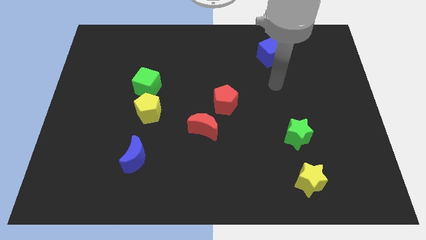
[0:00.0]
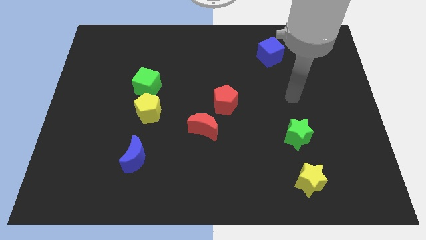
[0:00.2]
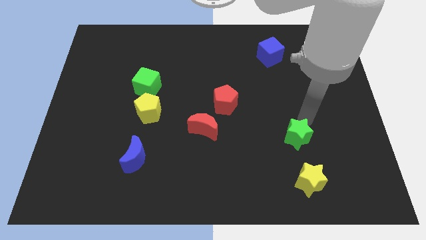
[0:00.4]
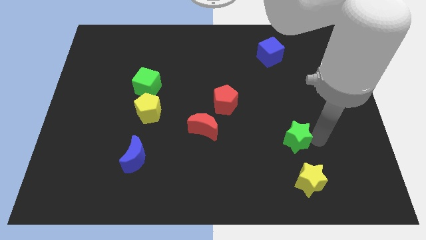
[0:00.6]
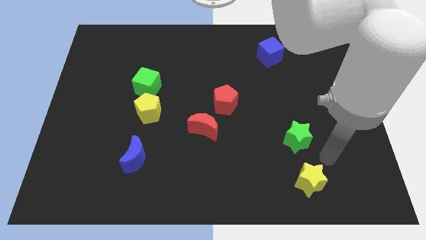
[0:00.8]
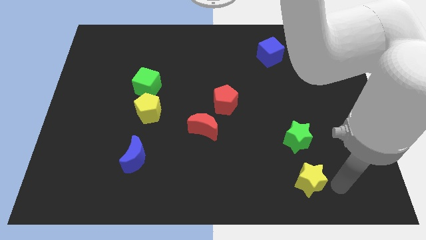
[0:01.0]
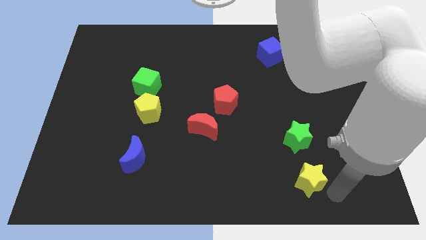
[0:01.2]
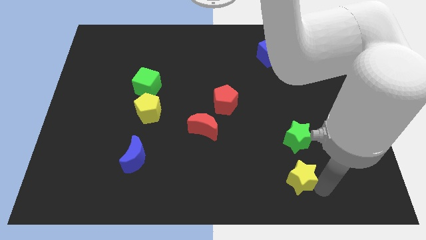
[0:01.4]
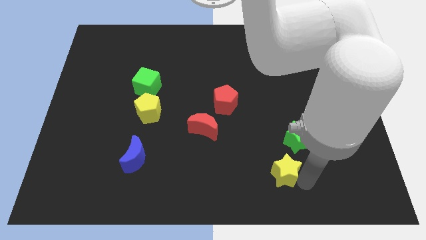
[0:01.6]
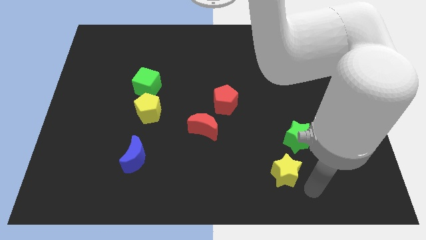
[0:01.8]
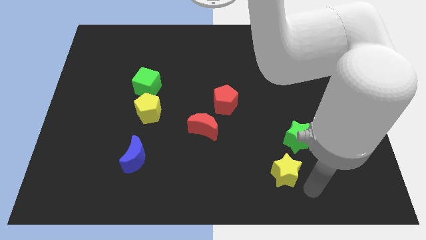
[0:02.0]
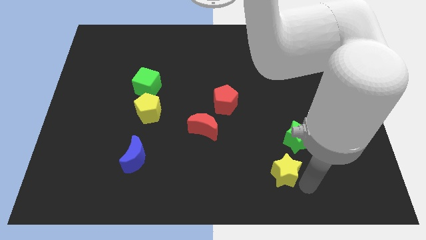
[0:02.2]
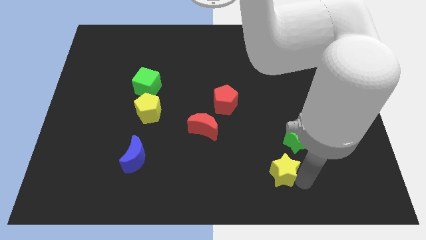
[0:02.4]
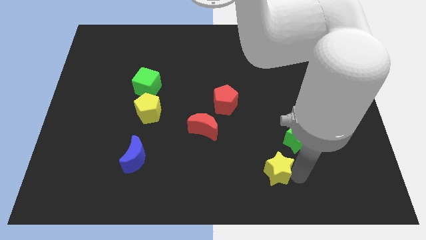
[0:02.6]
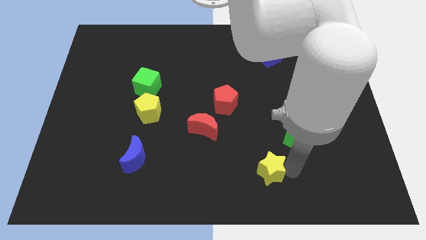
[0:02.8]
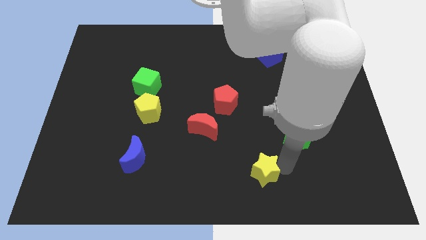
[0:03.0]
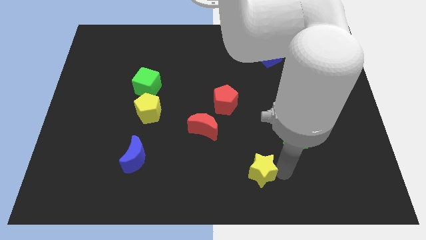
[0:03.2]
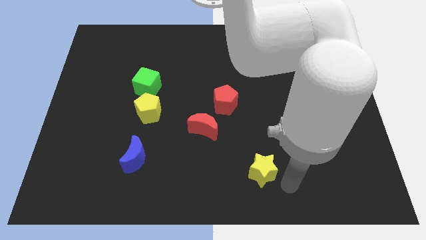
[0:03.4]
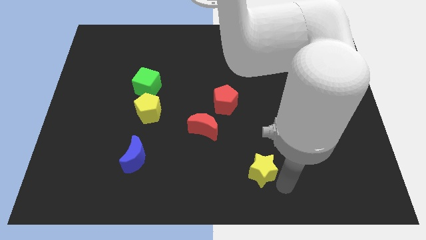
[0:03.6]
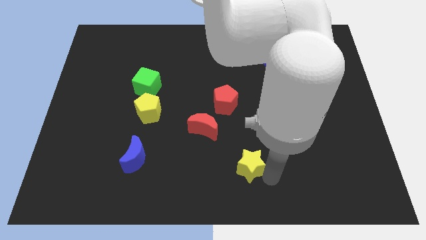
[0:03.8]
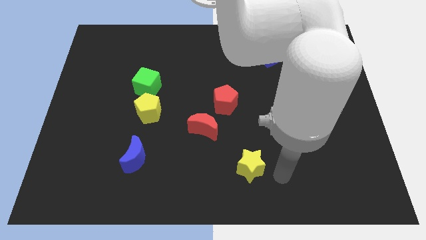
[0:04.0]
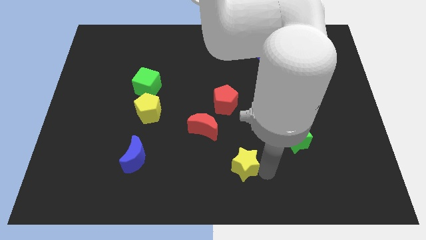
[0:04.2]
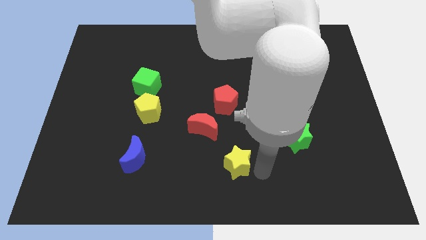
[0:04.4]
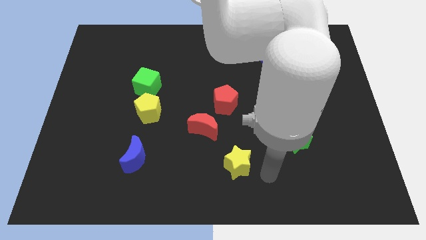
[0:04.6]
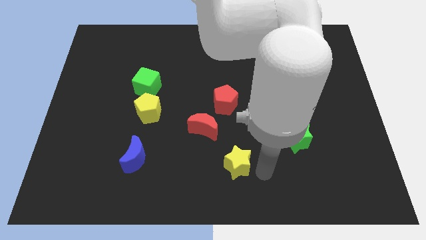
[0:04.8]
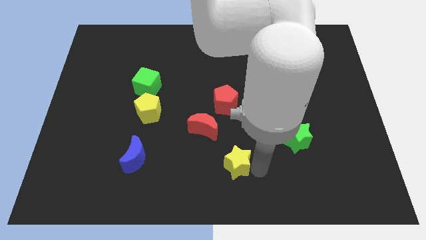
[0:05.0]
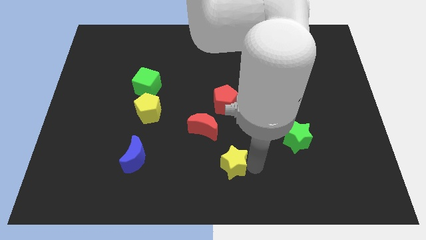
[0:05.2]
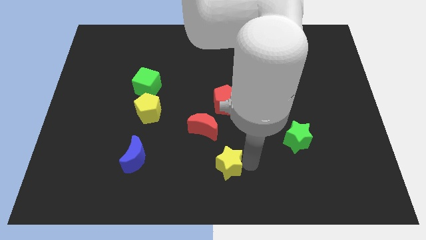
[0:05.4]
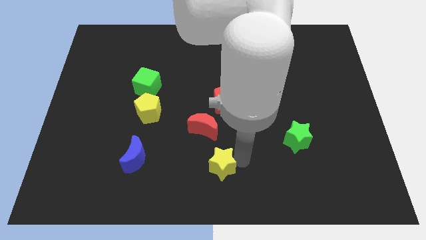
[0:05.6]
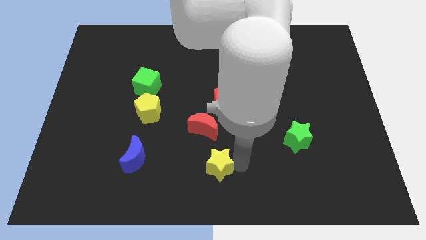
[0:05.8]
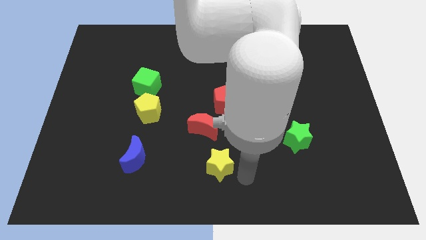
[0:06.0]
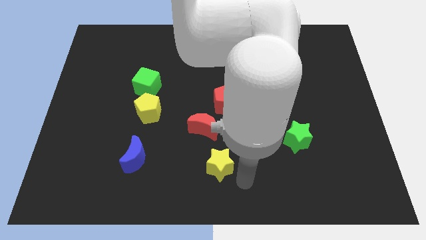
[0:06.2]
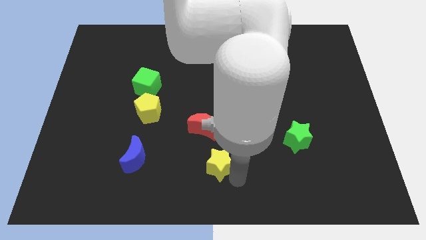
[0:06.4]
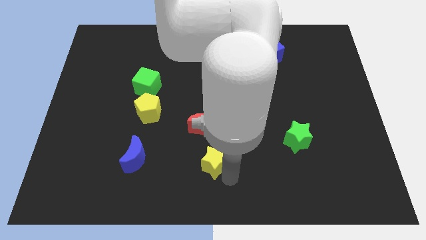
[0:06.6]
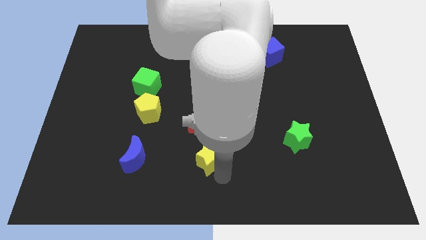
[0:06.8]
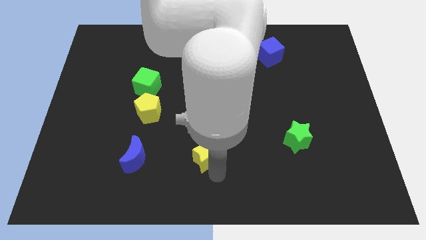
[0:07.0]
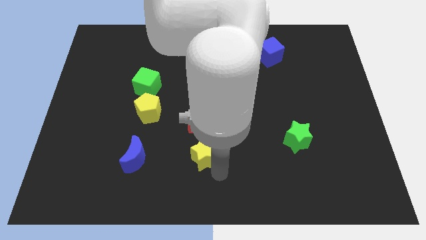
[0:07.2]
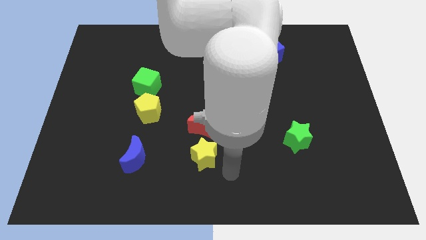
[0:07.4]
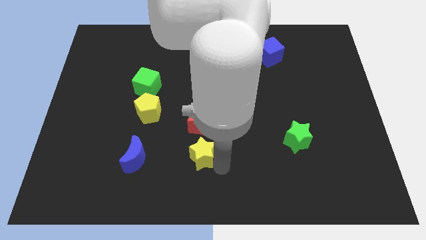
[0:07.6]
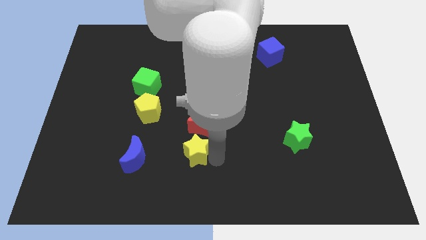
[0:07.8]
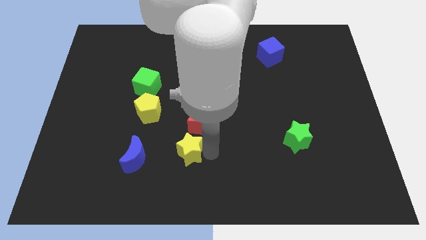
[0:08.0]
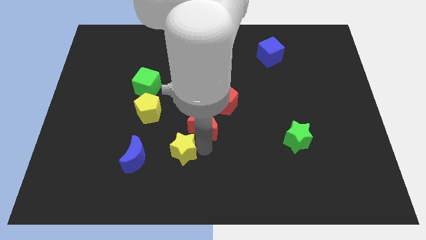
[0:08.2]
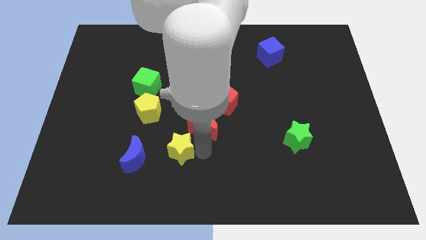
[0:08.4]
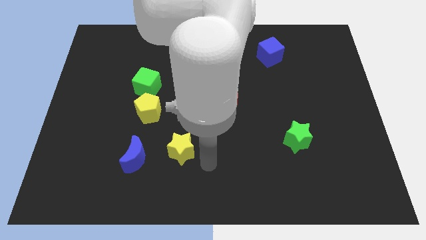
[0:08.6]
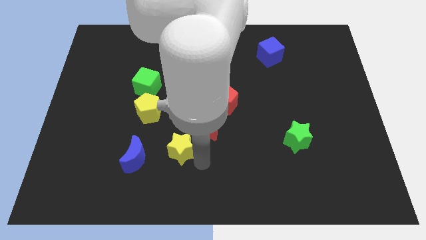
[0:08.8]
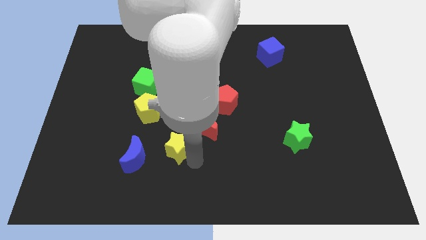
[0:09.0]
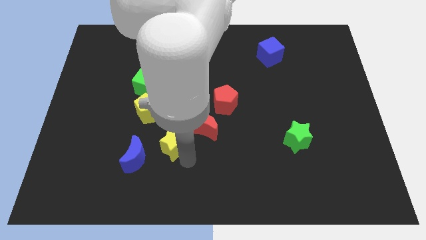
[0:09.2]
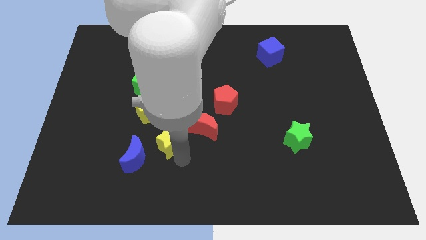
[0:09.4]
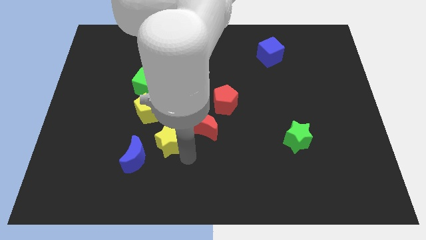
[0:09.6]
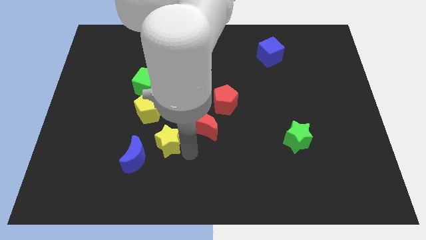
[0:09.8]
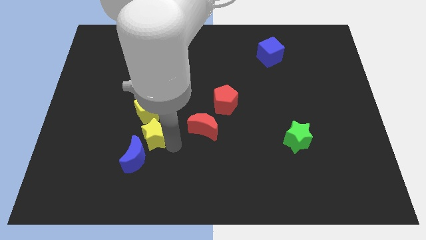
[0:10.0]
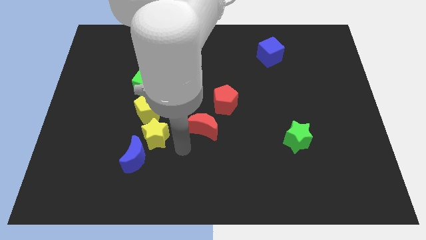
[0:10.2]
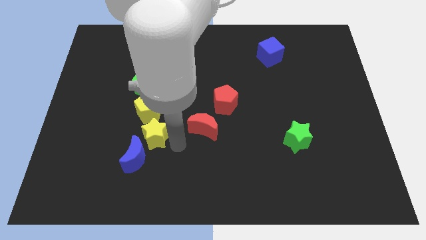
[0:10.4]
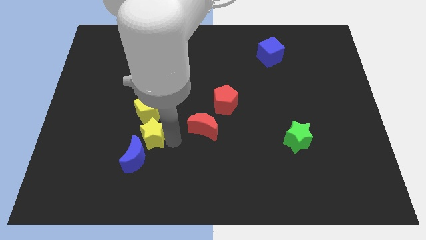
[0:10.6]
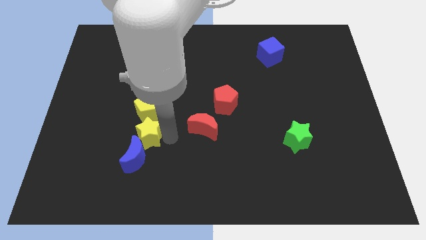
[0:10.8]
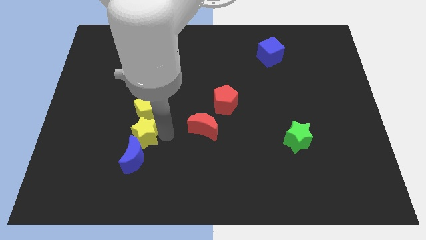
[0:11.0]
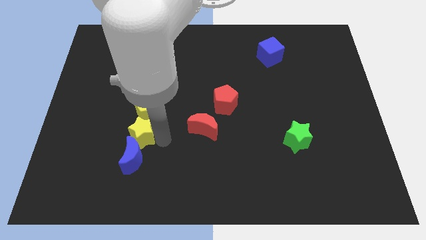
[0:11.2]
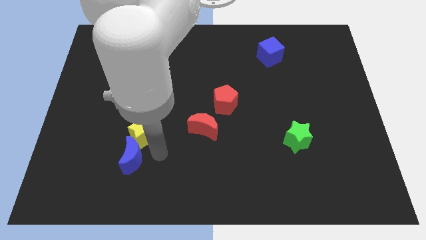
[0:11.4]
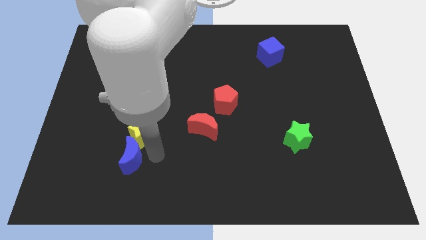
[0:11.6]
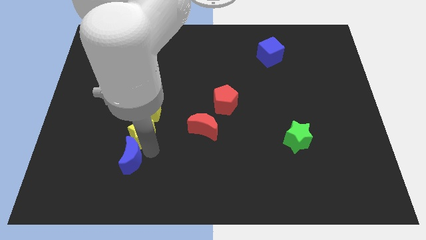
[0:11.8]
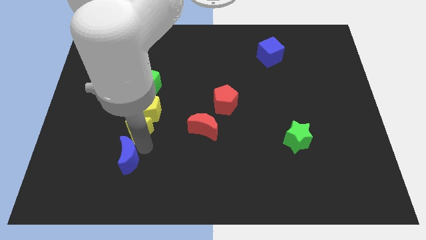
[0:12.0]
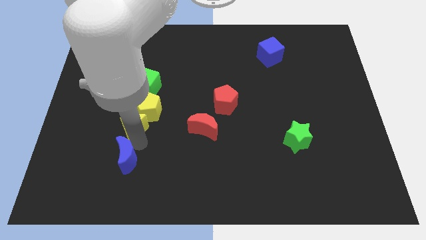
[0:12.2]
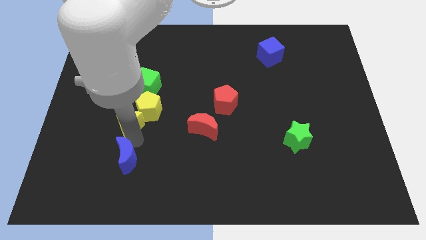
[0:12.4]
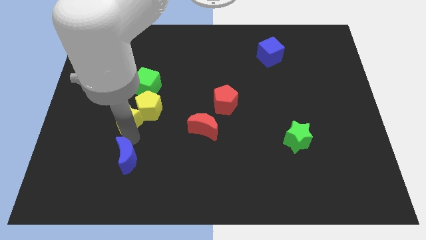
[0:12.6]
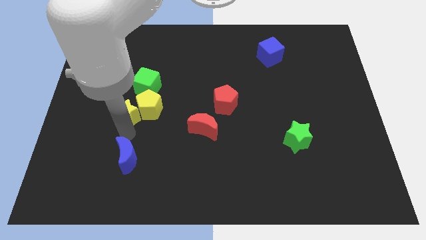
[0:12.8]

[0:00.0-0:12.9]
push the yellow star to the bottom left side of the green cube

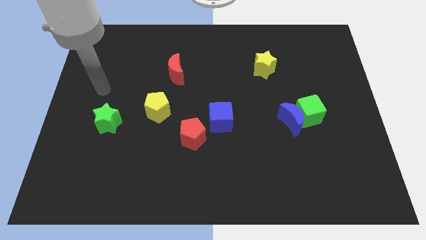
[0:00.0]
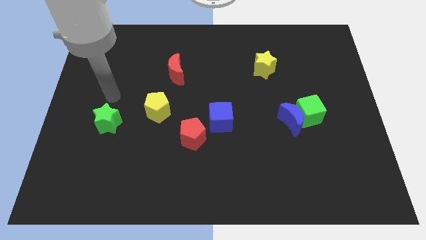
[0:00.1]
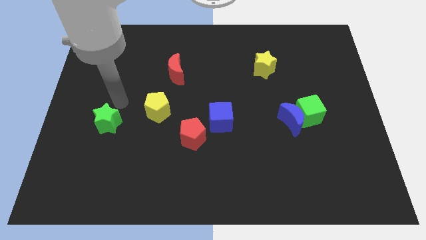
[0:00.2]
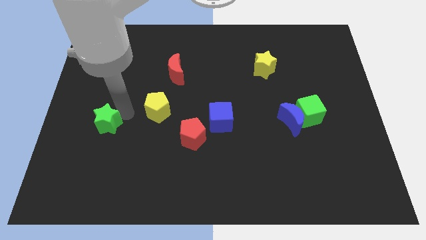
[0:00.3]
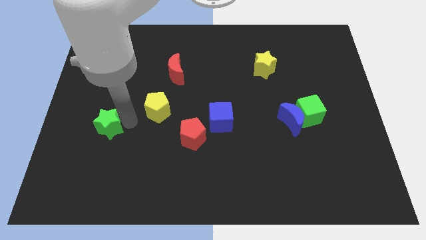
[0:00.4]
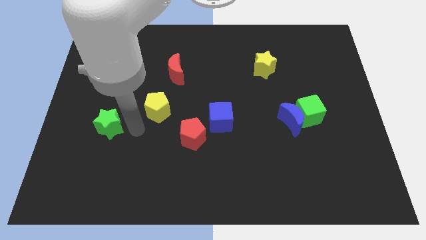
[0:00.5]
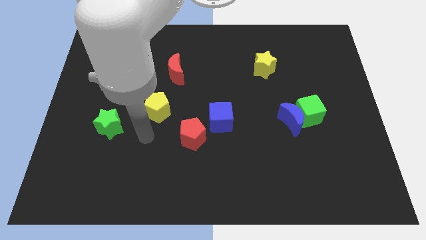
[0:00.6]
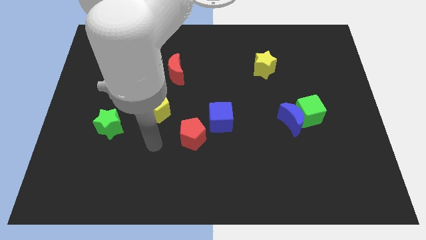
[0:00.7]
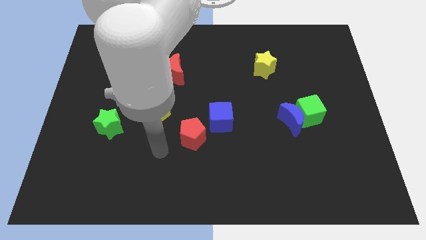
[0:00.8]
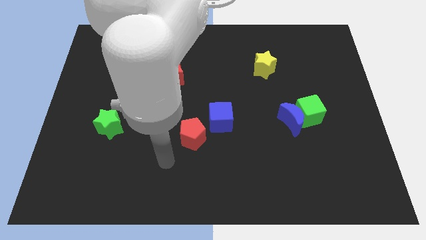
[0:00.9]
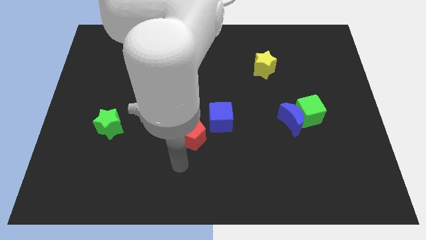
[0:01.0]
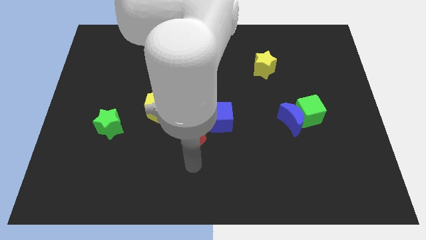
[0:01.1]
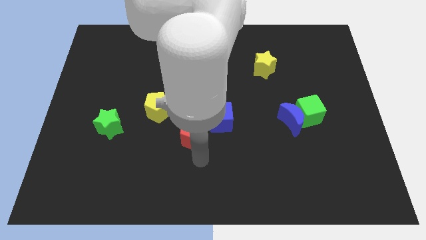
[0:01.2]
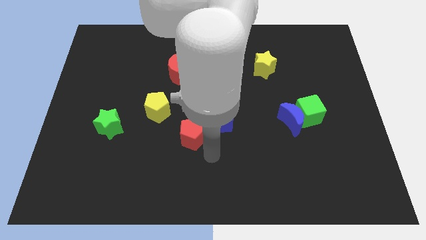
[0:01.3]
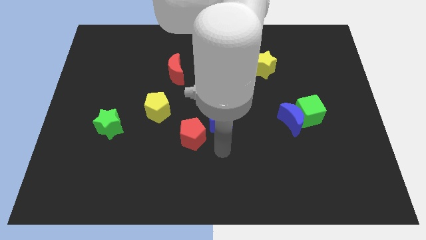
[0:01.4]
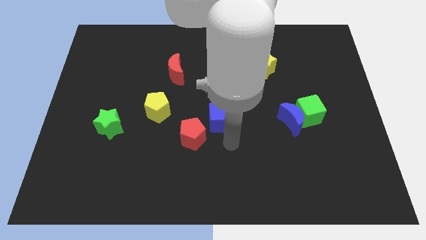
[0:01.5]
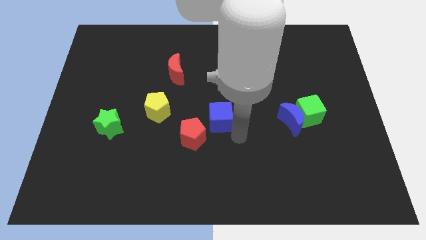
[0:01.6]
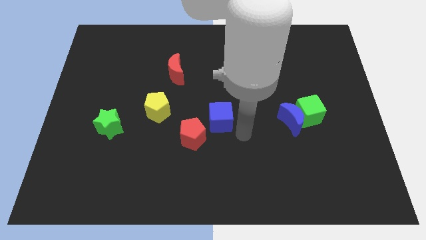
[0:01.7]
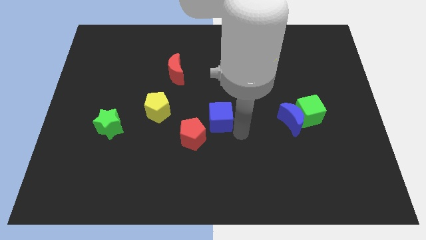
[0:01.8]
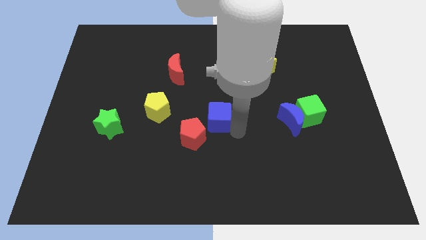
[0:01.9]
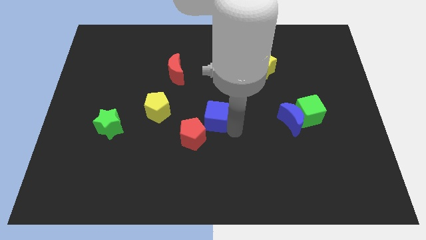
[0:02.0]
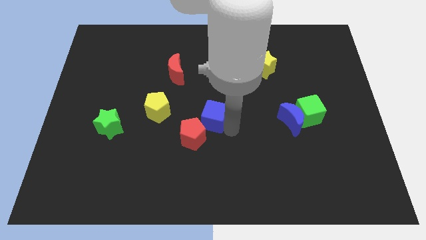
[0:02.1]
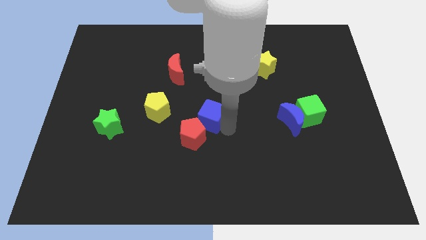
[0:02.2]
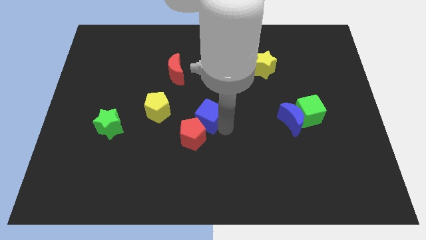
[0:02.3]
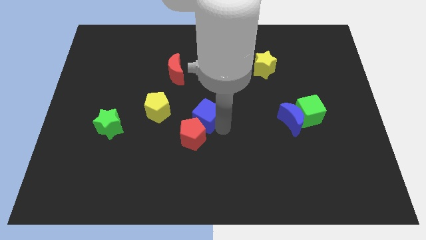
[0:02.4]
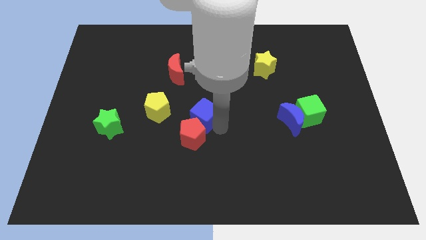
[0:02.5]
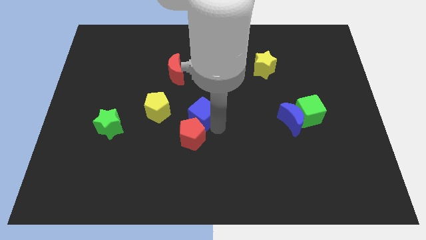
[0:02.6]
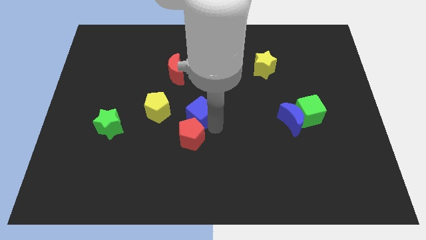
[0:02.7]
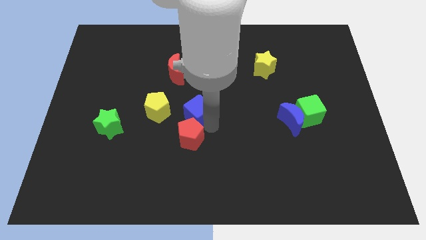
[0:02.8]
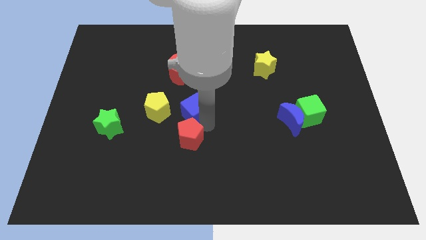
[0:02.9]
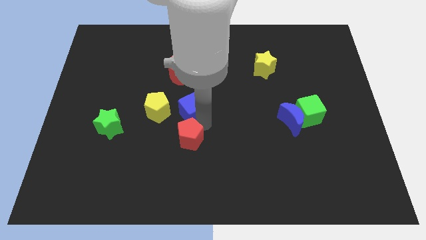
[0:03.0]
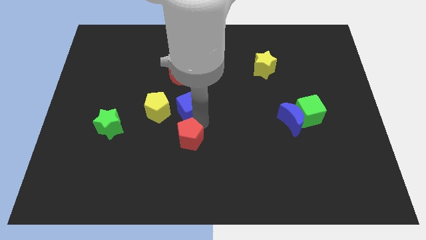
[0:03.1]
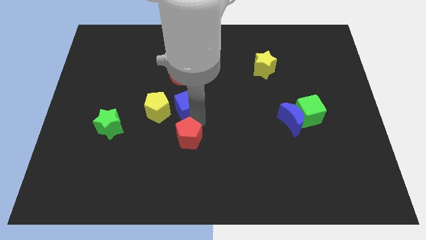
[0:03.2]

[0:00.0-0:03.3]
push the blue cube diagonally up and to the right of the yellow pentagon
